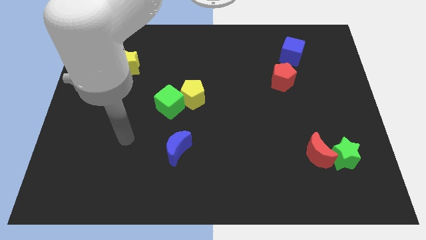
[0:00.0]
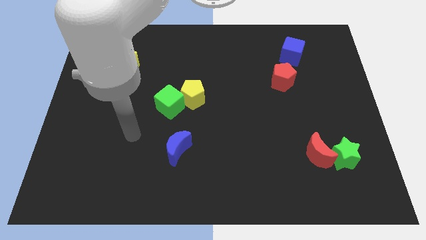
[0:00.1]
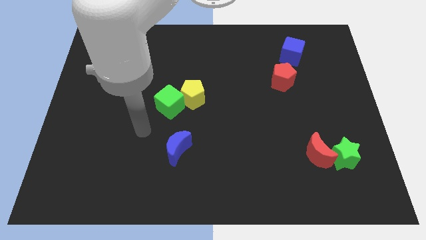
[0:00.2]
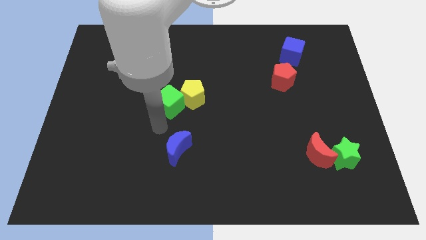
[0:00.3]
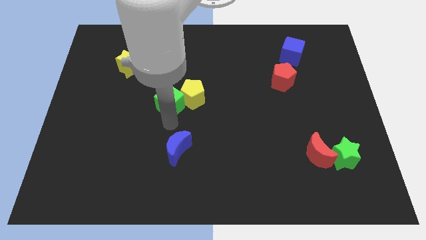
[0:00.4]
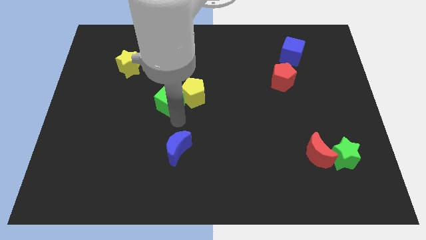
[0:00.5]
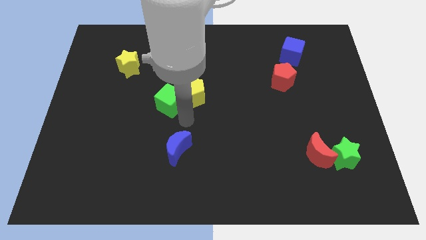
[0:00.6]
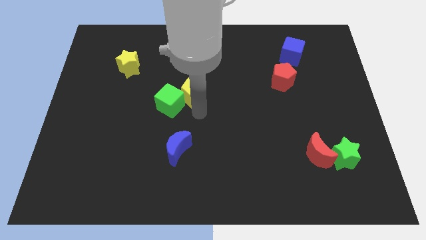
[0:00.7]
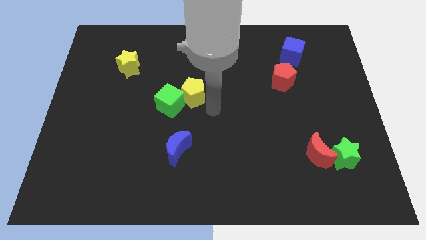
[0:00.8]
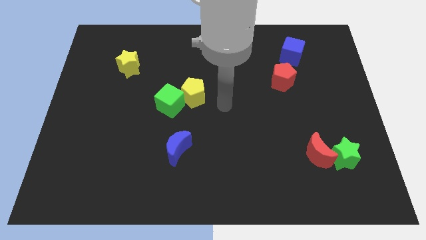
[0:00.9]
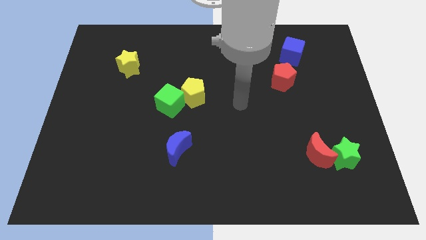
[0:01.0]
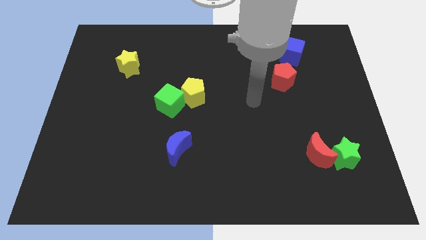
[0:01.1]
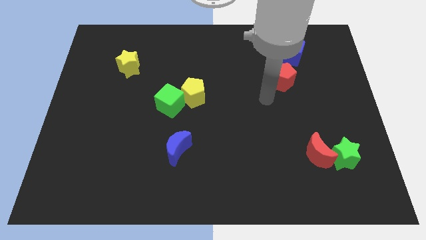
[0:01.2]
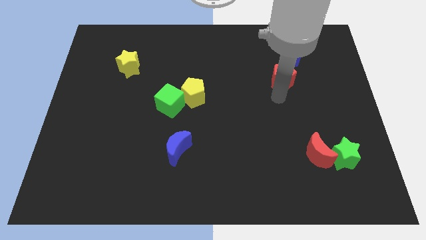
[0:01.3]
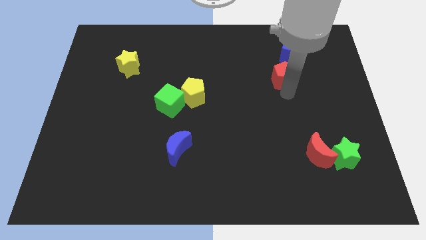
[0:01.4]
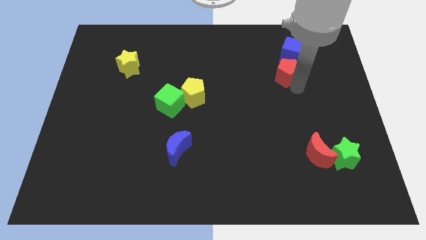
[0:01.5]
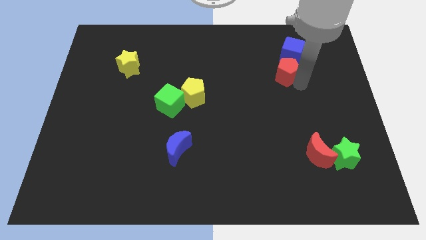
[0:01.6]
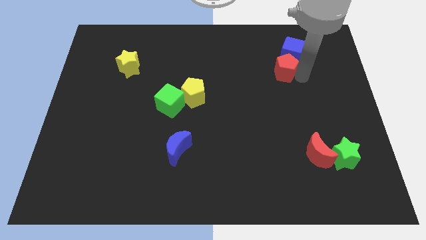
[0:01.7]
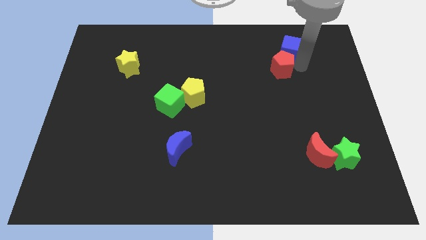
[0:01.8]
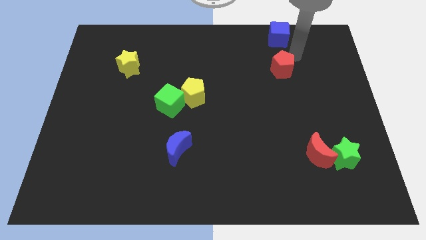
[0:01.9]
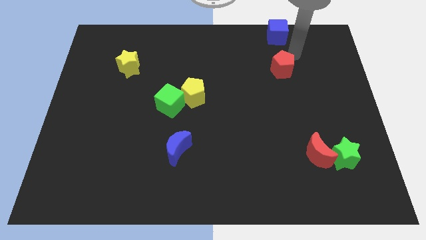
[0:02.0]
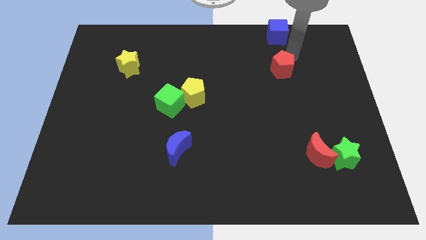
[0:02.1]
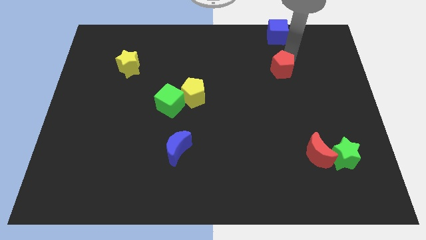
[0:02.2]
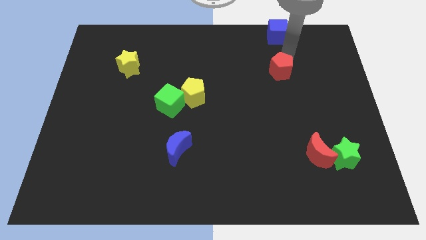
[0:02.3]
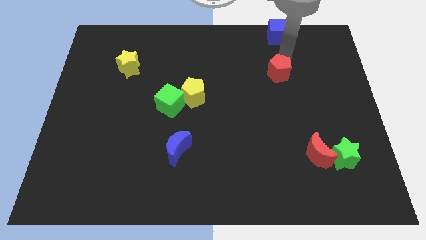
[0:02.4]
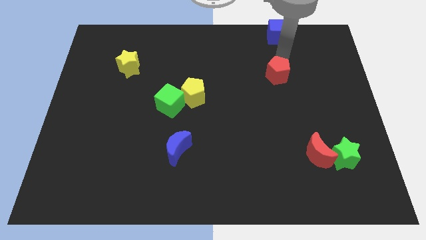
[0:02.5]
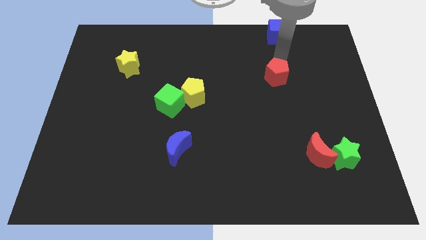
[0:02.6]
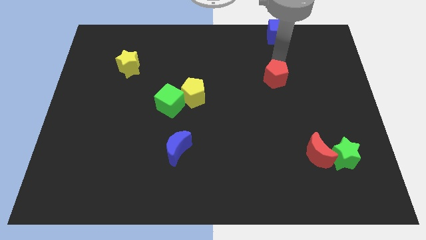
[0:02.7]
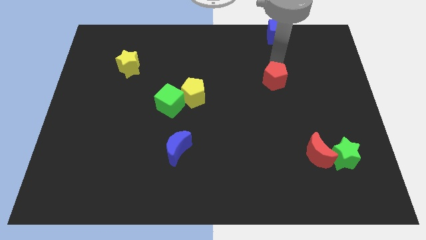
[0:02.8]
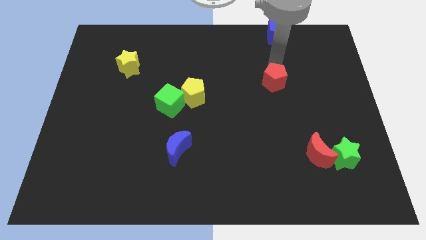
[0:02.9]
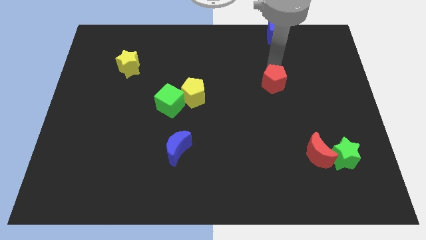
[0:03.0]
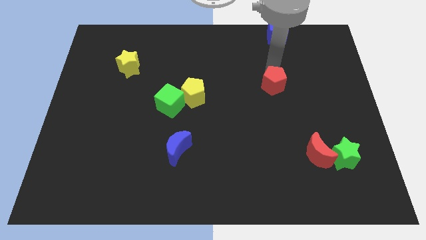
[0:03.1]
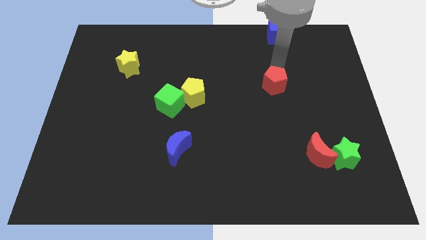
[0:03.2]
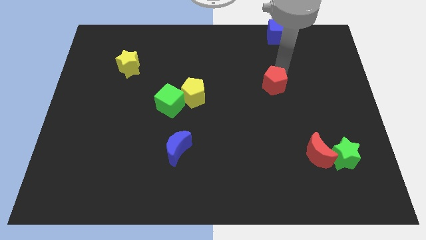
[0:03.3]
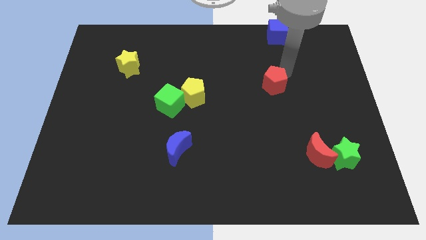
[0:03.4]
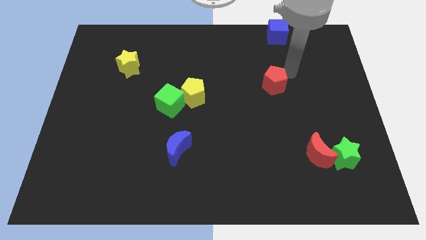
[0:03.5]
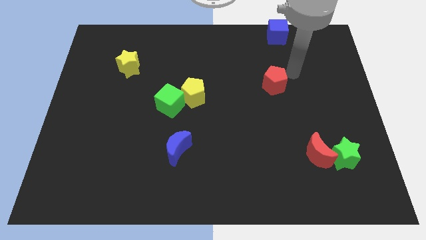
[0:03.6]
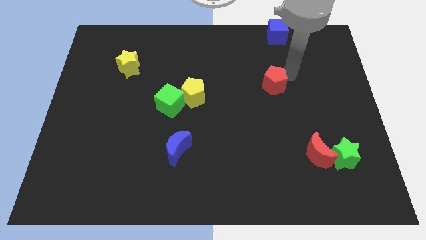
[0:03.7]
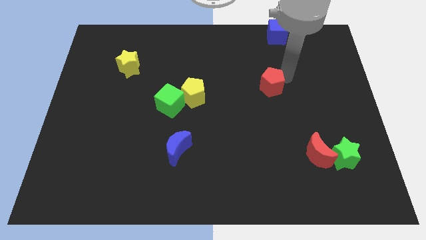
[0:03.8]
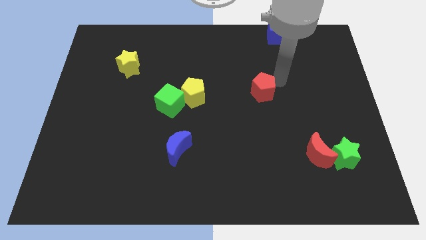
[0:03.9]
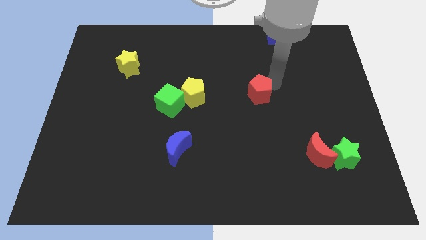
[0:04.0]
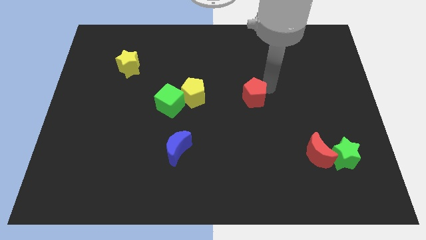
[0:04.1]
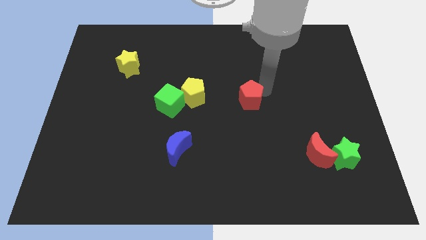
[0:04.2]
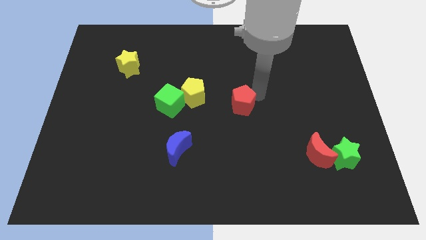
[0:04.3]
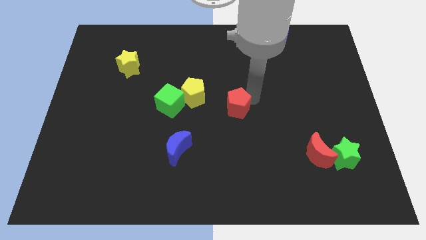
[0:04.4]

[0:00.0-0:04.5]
slide the red pentagon to the bottom right of the yellow pentagon

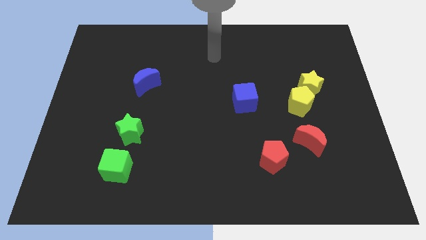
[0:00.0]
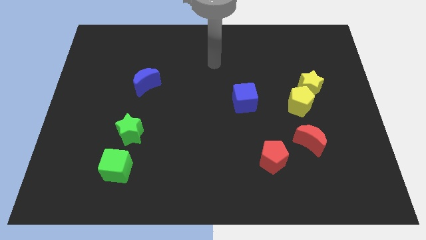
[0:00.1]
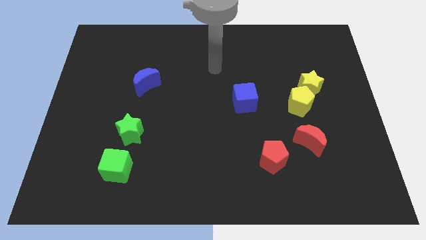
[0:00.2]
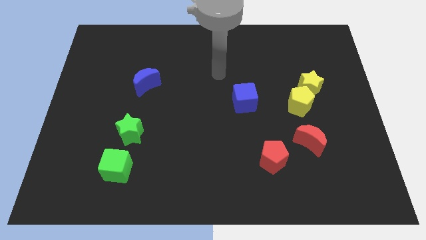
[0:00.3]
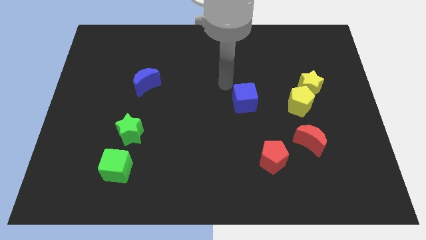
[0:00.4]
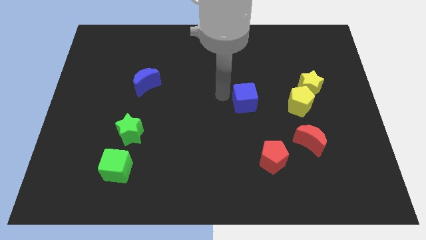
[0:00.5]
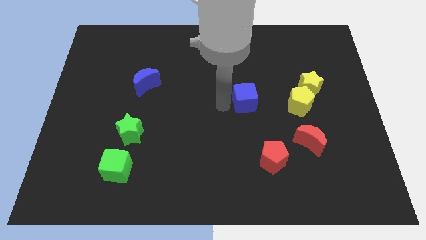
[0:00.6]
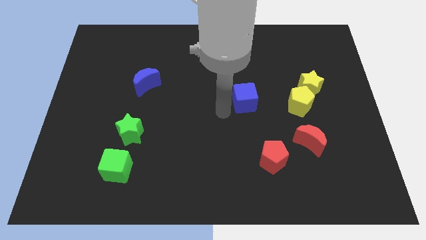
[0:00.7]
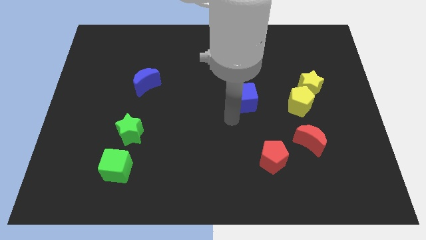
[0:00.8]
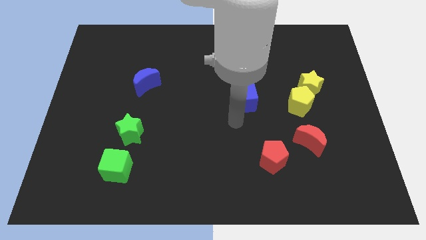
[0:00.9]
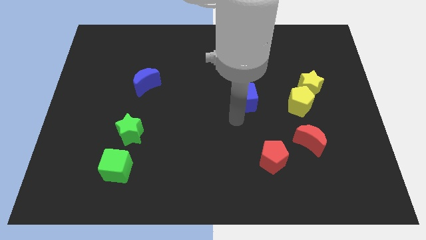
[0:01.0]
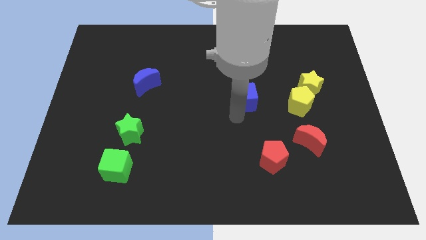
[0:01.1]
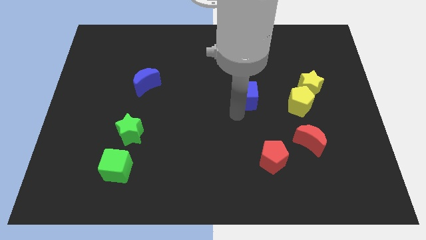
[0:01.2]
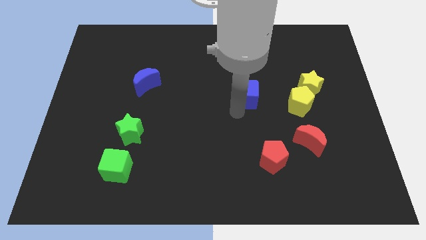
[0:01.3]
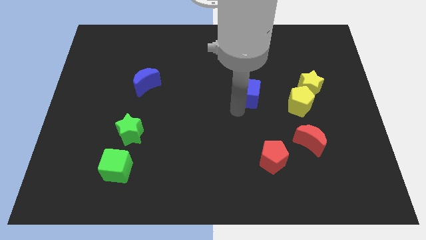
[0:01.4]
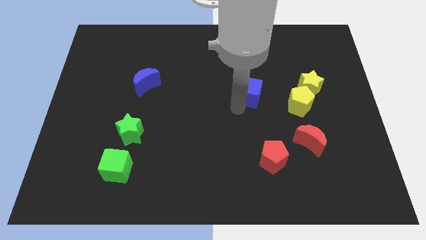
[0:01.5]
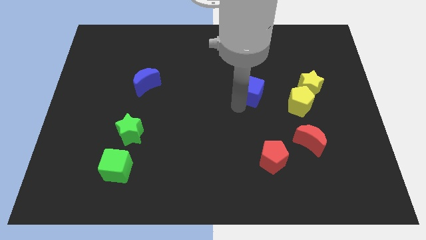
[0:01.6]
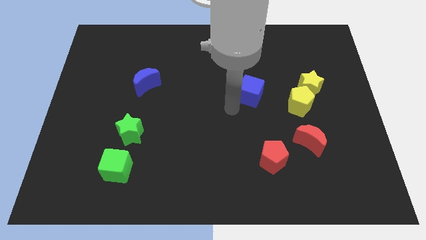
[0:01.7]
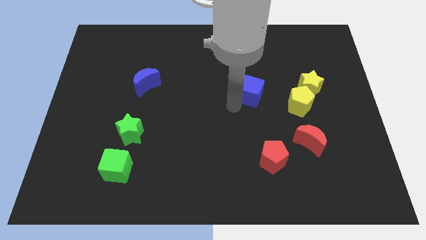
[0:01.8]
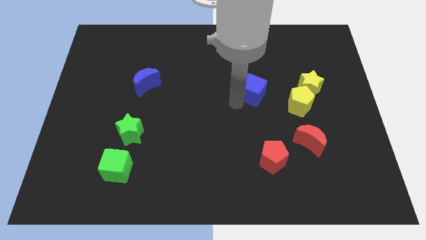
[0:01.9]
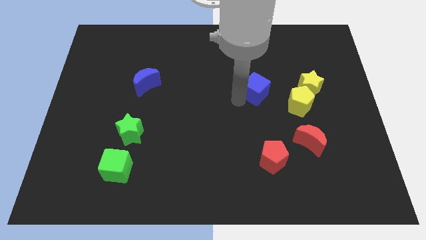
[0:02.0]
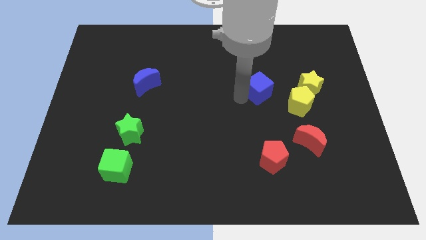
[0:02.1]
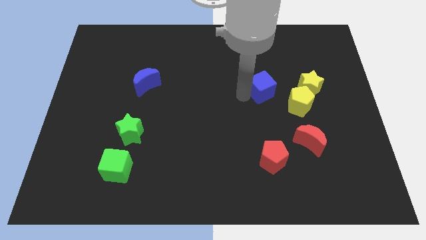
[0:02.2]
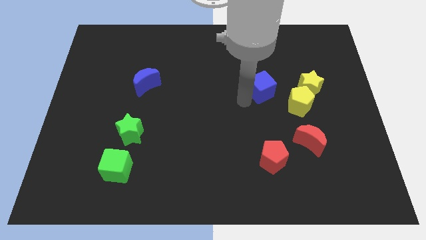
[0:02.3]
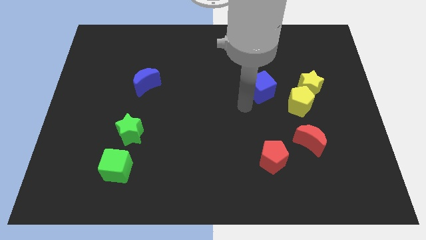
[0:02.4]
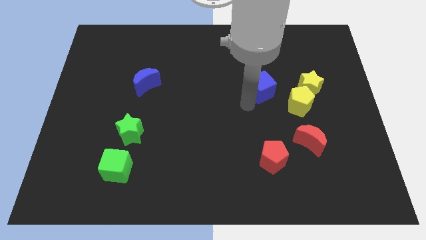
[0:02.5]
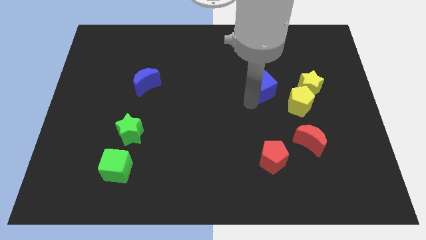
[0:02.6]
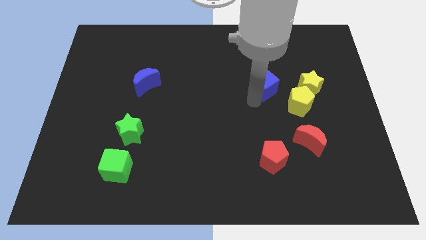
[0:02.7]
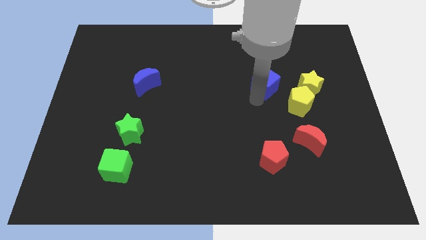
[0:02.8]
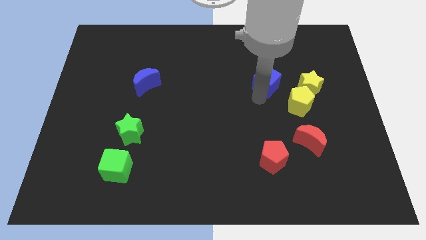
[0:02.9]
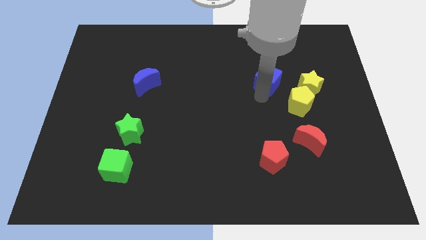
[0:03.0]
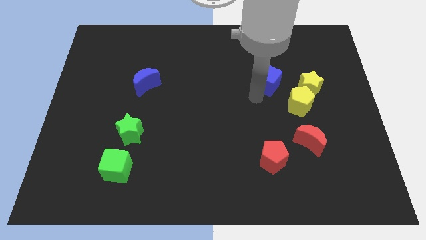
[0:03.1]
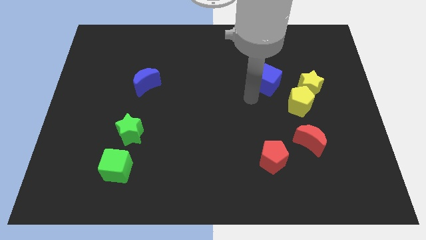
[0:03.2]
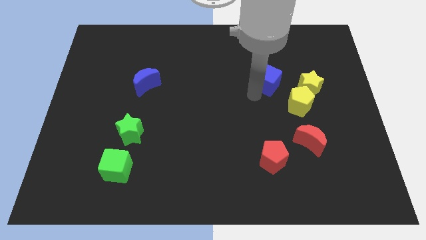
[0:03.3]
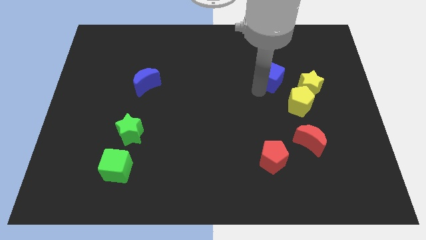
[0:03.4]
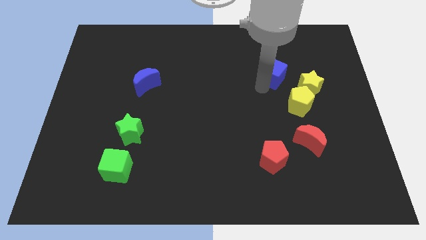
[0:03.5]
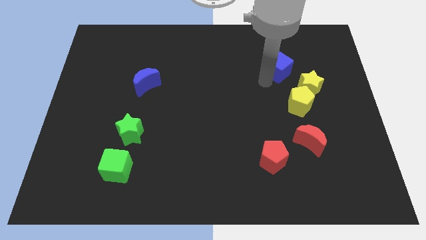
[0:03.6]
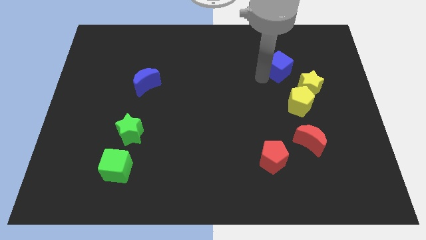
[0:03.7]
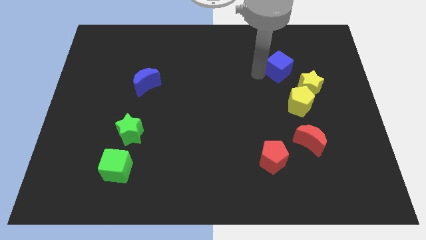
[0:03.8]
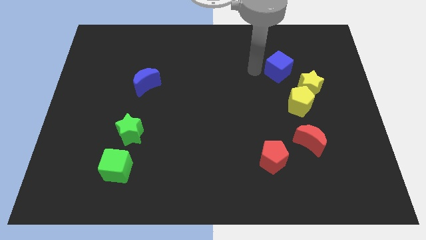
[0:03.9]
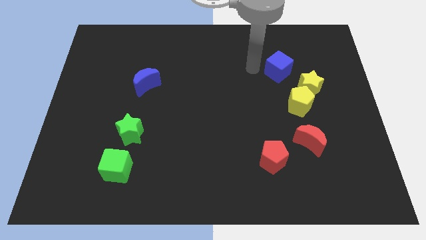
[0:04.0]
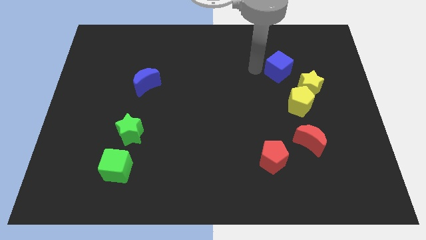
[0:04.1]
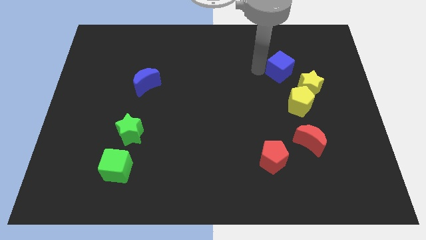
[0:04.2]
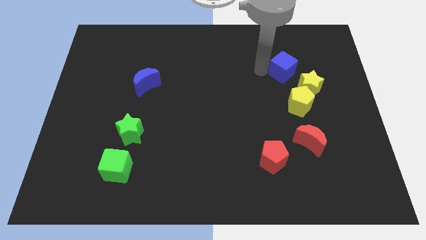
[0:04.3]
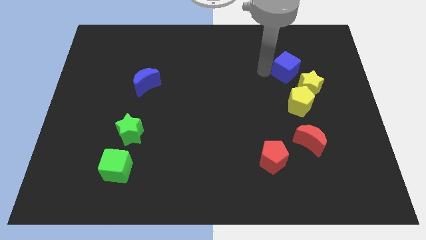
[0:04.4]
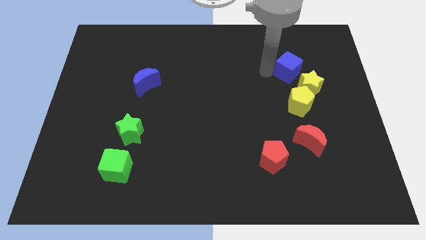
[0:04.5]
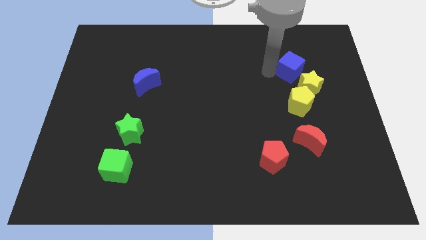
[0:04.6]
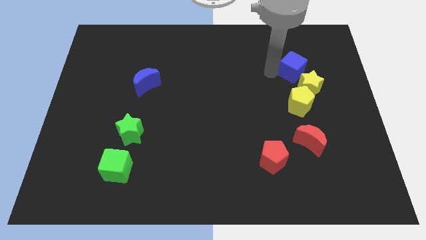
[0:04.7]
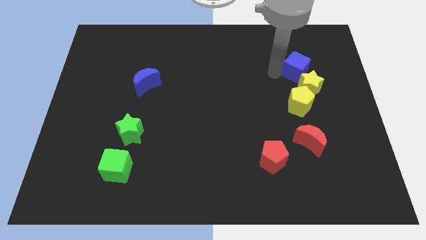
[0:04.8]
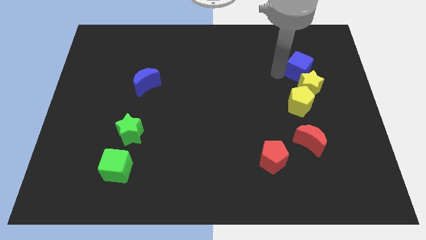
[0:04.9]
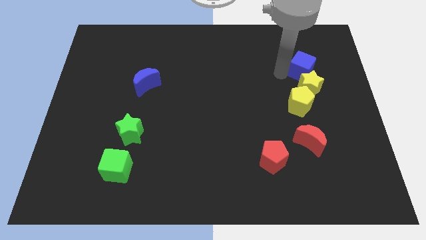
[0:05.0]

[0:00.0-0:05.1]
slide the blue cube to the top right of the yellow star
